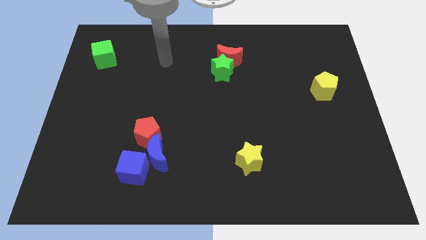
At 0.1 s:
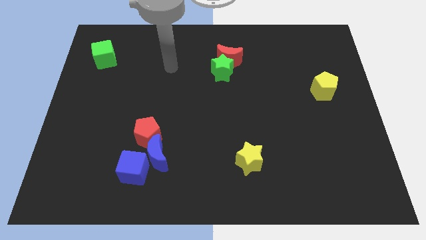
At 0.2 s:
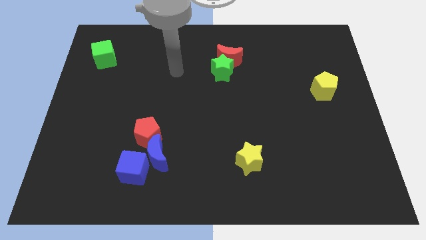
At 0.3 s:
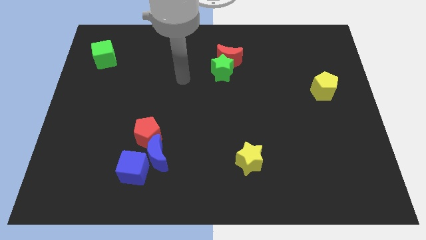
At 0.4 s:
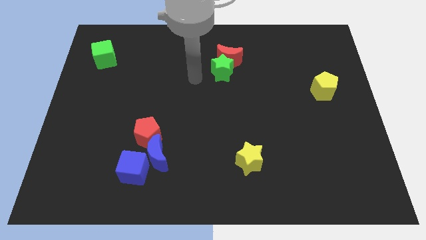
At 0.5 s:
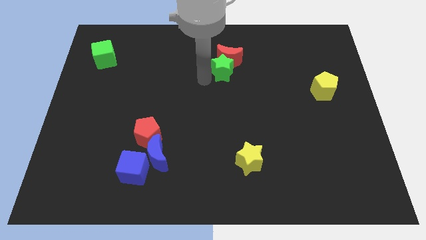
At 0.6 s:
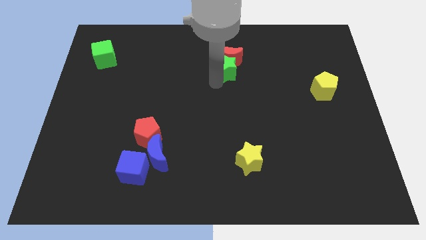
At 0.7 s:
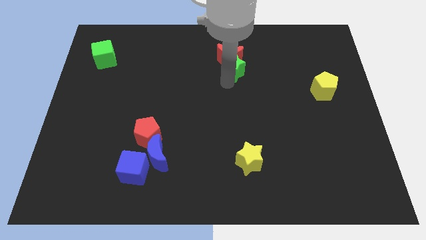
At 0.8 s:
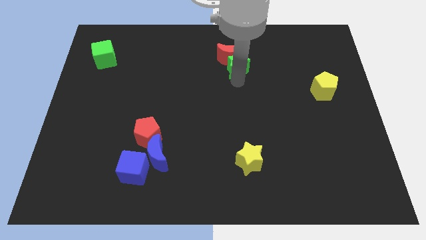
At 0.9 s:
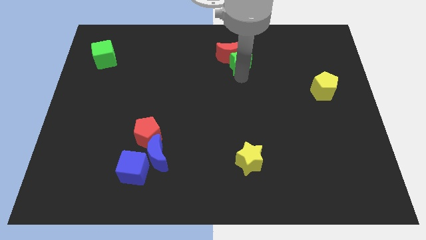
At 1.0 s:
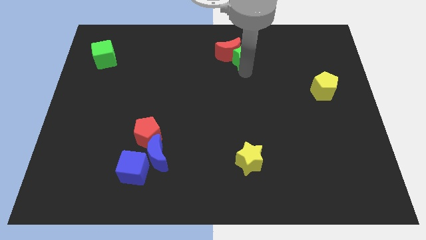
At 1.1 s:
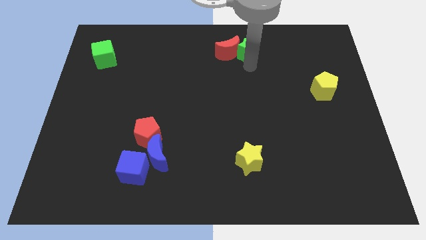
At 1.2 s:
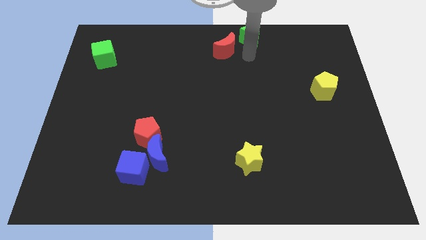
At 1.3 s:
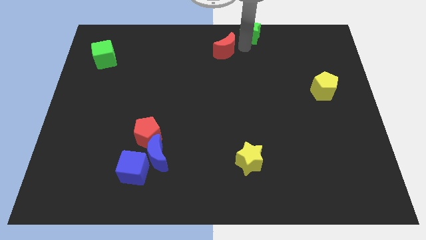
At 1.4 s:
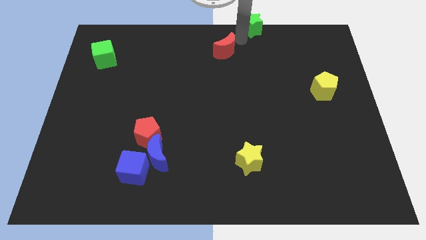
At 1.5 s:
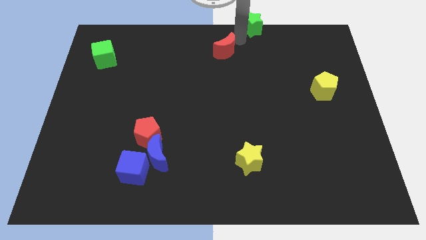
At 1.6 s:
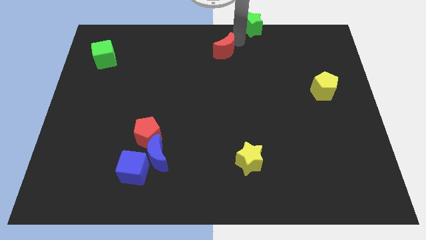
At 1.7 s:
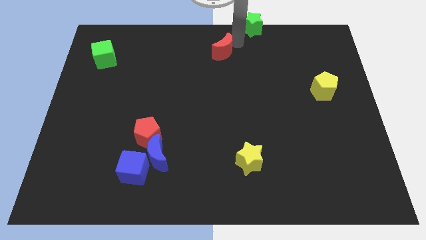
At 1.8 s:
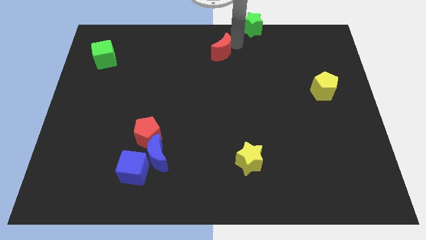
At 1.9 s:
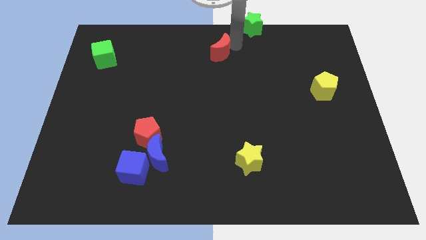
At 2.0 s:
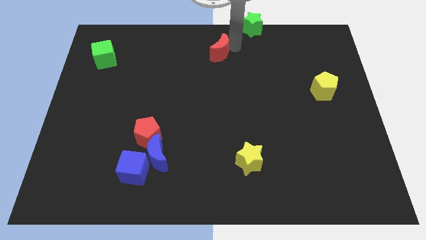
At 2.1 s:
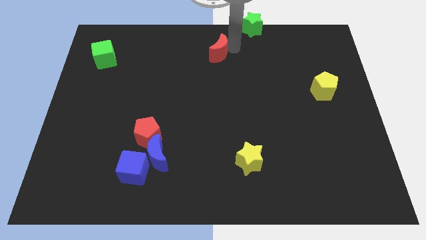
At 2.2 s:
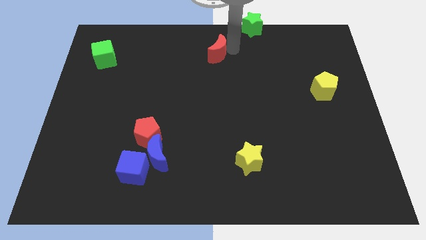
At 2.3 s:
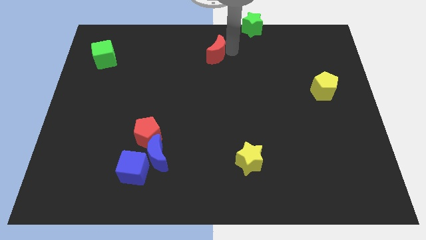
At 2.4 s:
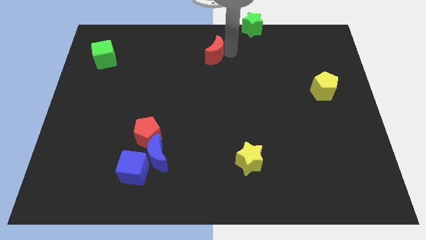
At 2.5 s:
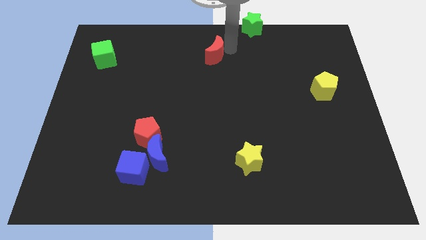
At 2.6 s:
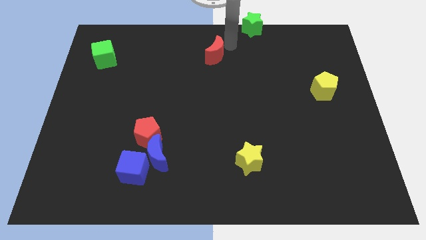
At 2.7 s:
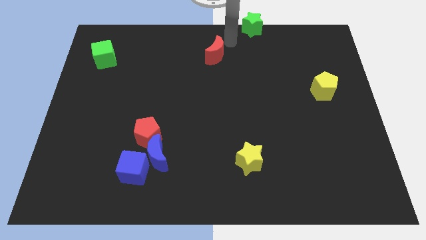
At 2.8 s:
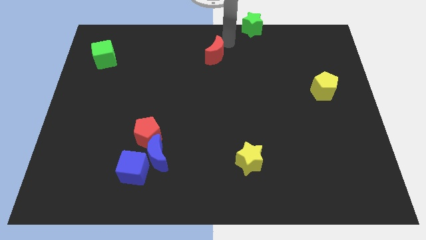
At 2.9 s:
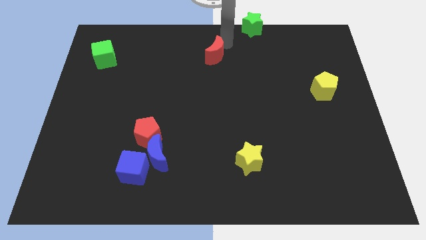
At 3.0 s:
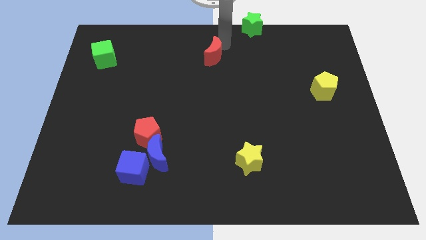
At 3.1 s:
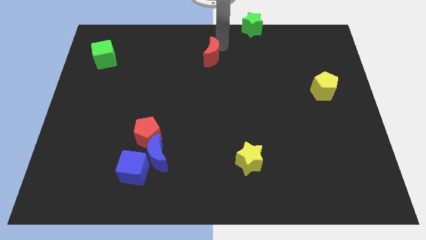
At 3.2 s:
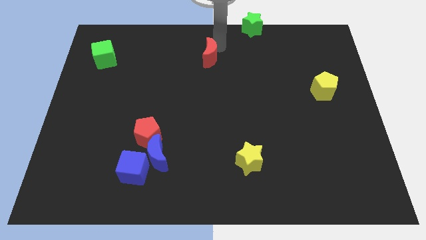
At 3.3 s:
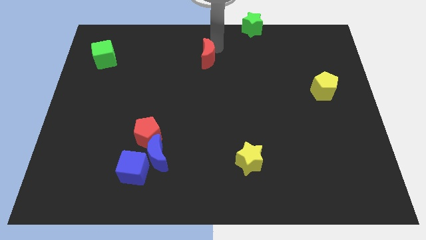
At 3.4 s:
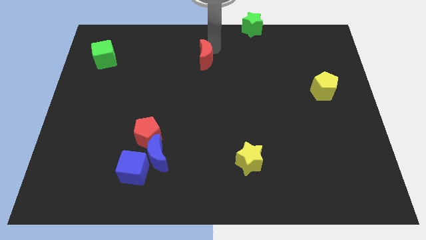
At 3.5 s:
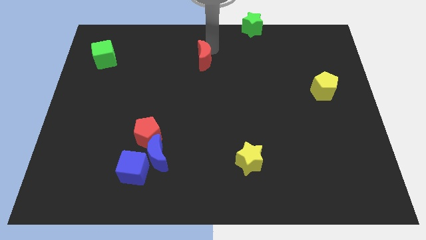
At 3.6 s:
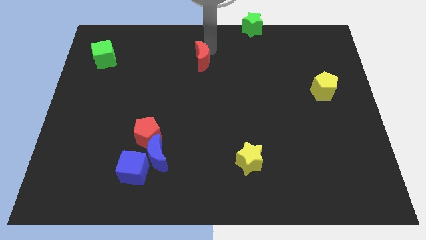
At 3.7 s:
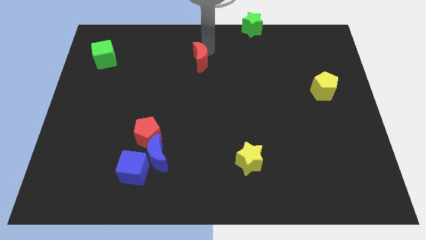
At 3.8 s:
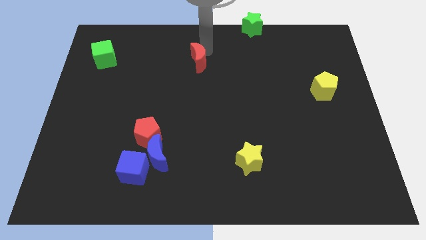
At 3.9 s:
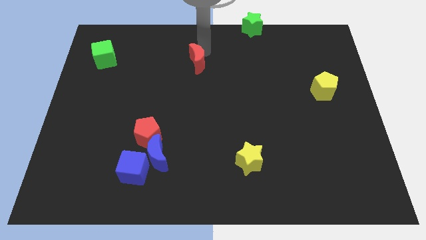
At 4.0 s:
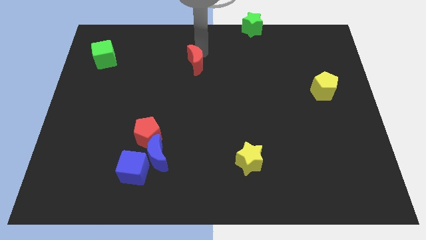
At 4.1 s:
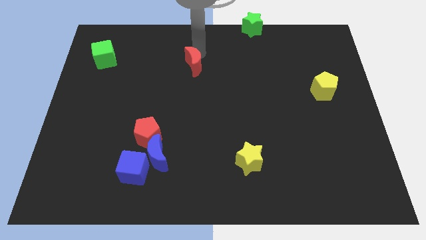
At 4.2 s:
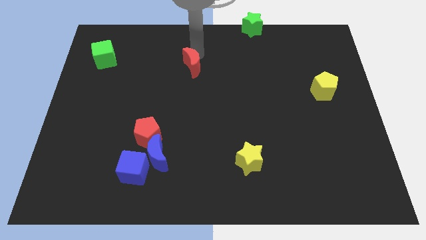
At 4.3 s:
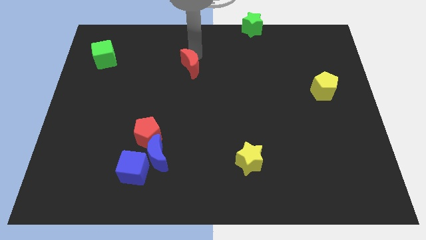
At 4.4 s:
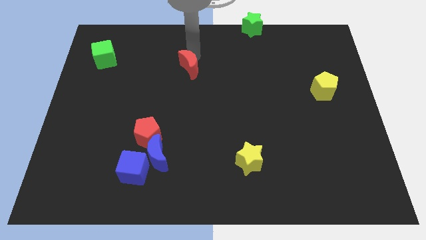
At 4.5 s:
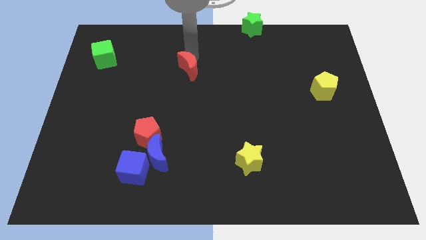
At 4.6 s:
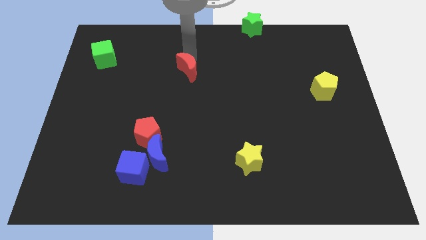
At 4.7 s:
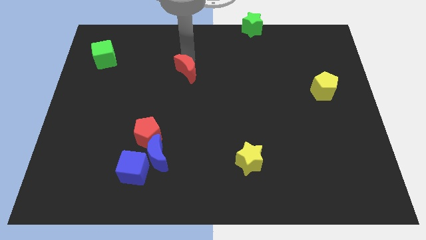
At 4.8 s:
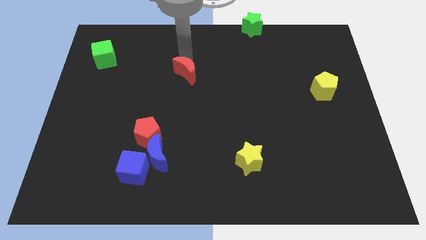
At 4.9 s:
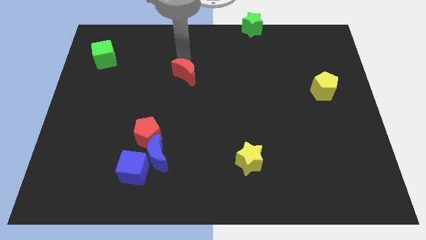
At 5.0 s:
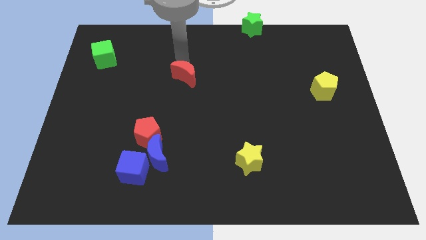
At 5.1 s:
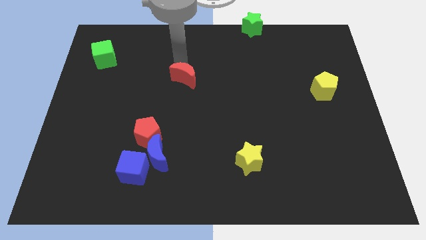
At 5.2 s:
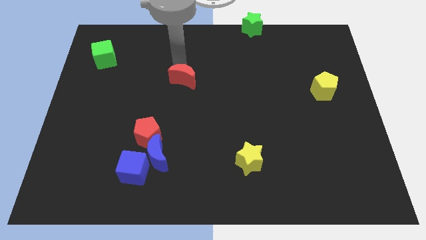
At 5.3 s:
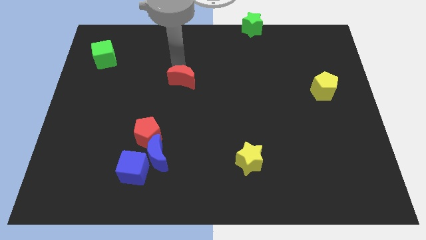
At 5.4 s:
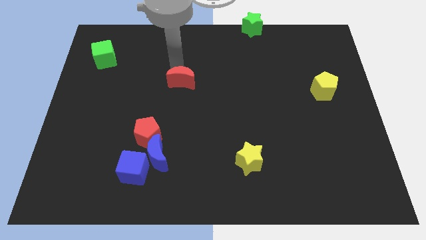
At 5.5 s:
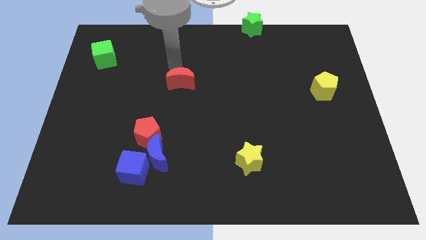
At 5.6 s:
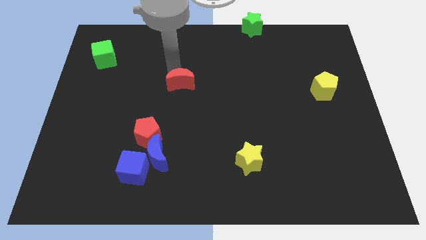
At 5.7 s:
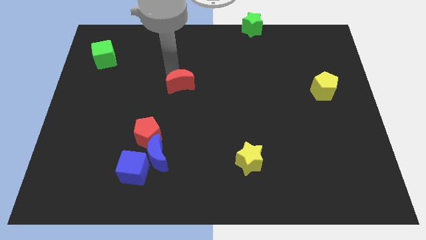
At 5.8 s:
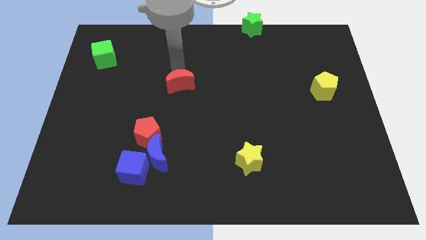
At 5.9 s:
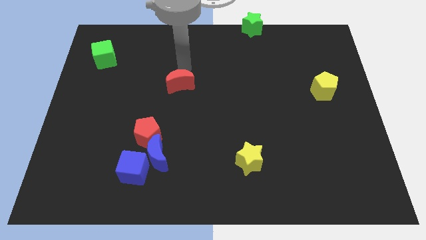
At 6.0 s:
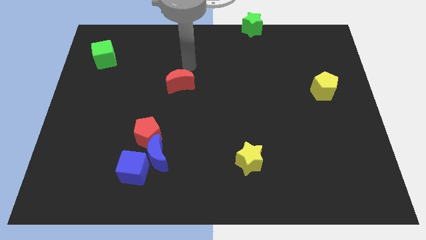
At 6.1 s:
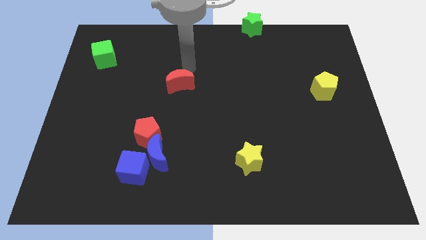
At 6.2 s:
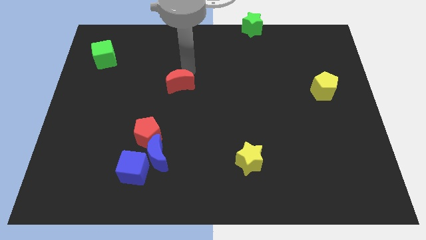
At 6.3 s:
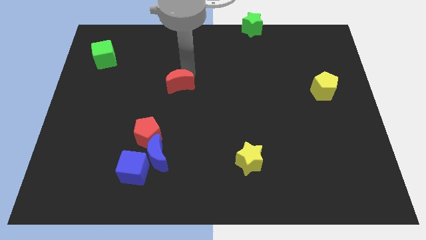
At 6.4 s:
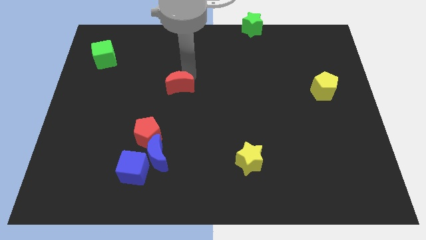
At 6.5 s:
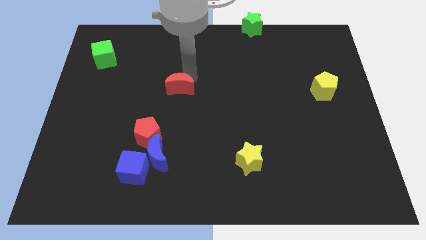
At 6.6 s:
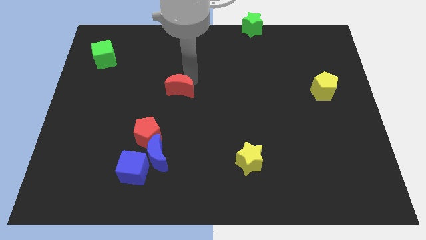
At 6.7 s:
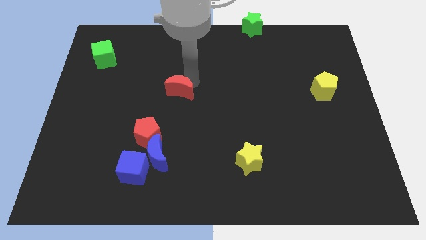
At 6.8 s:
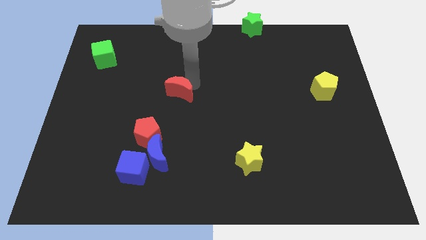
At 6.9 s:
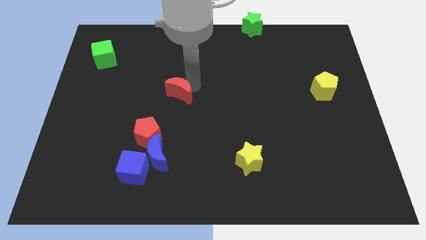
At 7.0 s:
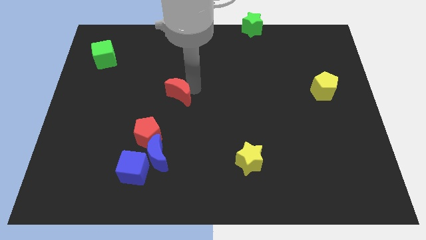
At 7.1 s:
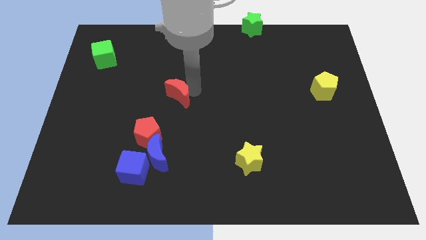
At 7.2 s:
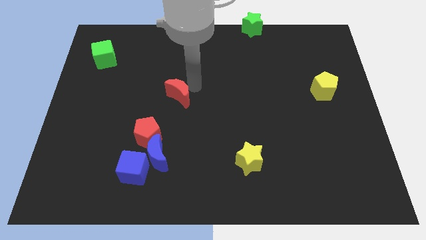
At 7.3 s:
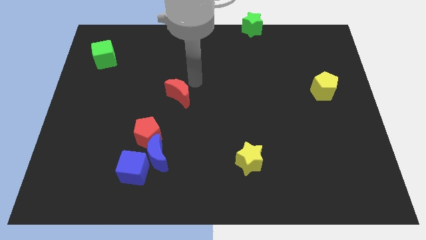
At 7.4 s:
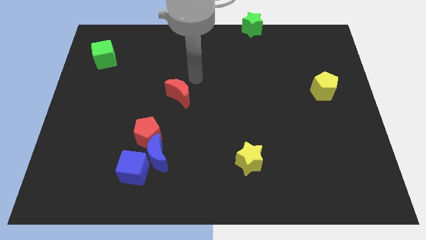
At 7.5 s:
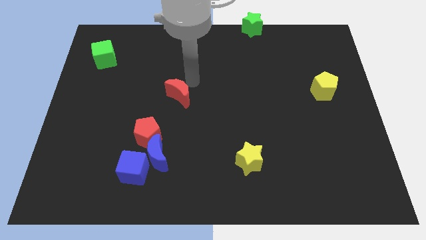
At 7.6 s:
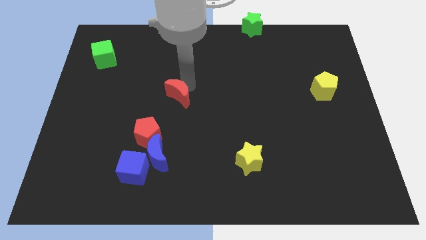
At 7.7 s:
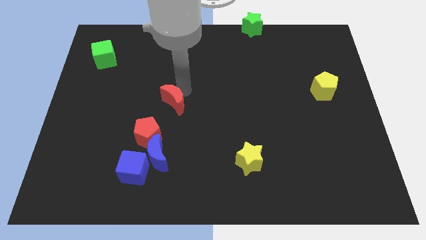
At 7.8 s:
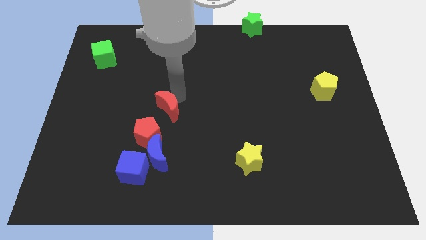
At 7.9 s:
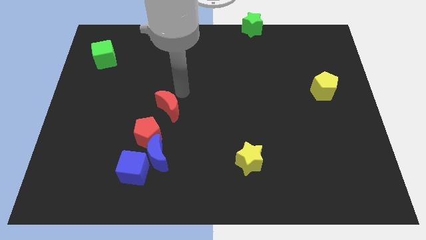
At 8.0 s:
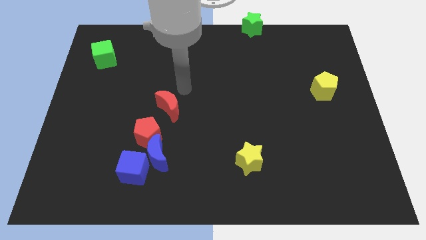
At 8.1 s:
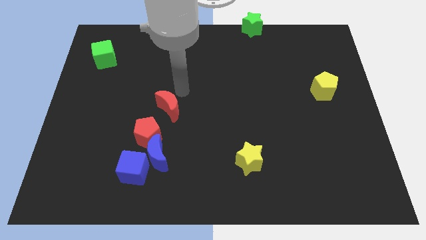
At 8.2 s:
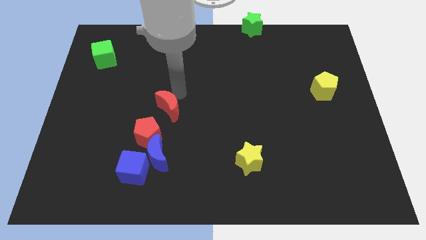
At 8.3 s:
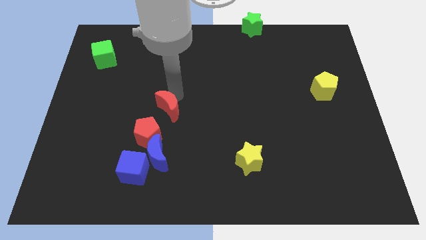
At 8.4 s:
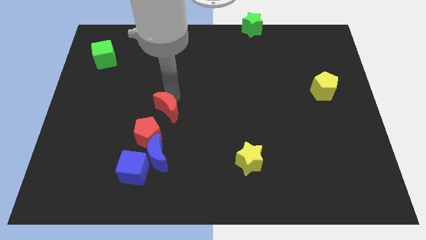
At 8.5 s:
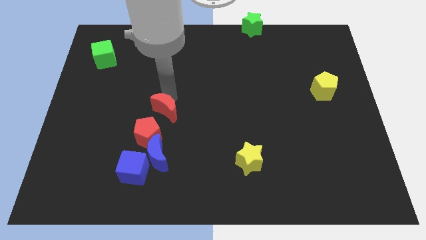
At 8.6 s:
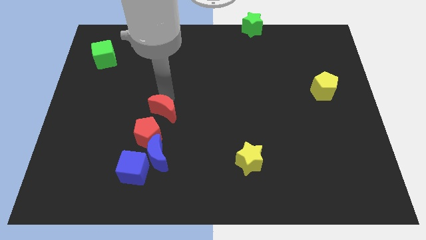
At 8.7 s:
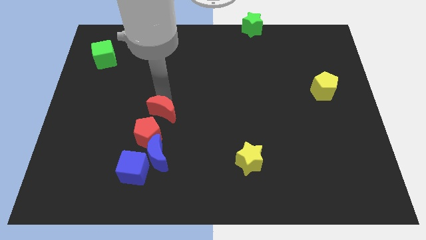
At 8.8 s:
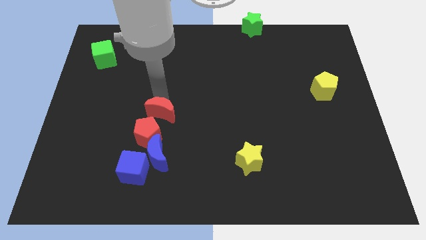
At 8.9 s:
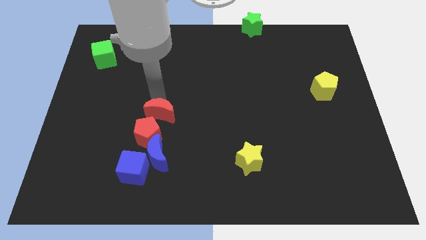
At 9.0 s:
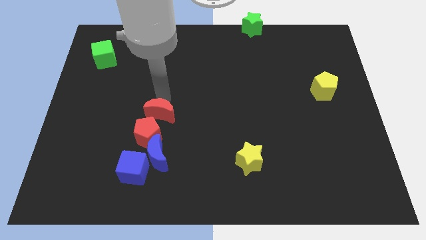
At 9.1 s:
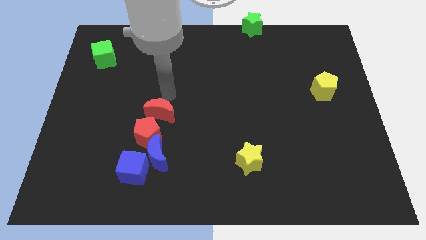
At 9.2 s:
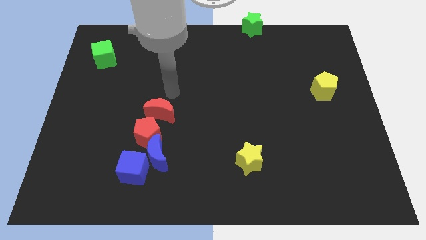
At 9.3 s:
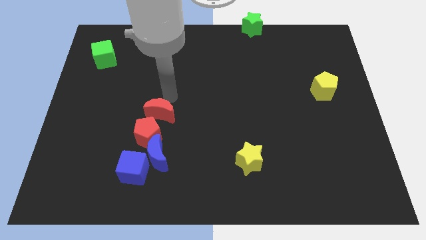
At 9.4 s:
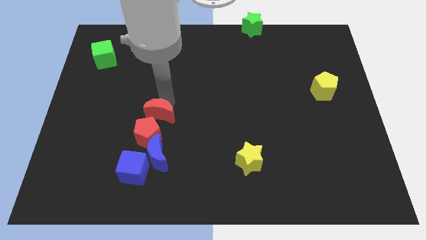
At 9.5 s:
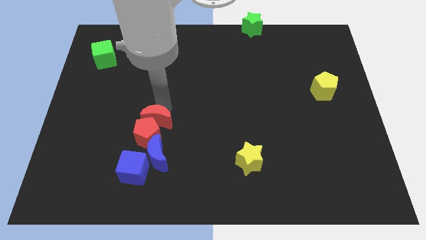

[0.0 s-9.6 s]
put the red moon towards the red pentagon
